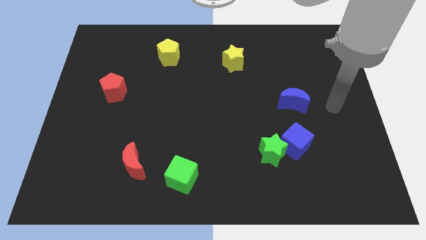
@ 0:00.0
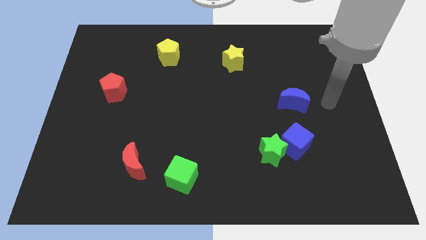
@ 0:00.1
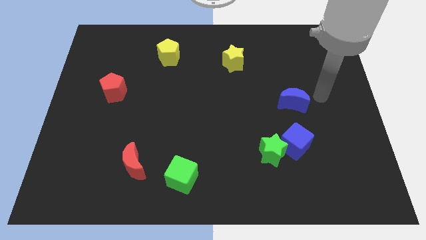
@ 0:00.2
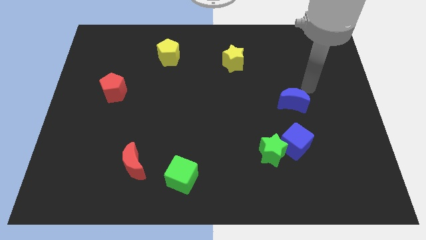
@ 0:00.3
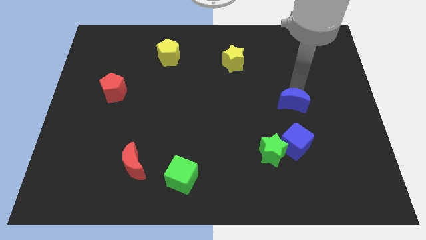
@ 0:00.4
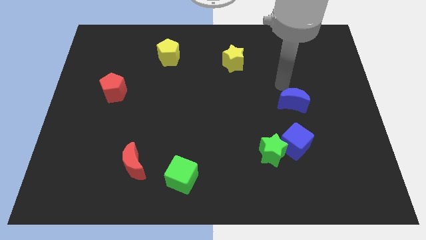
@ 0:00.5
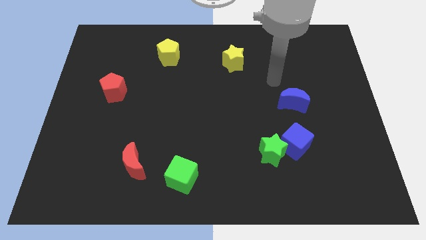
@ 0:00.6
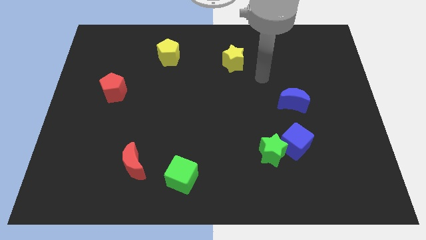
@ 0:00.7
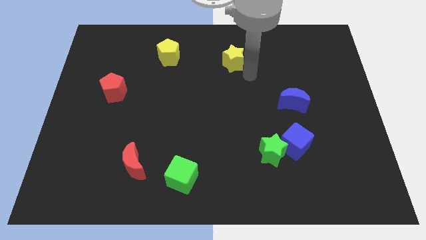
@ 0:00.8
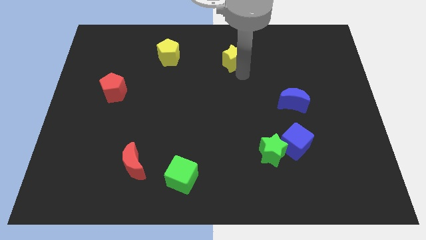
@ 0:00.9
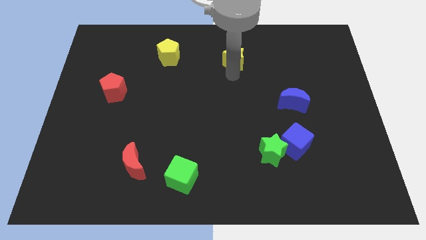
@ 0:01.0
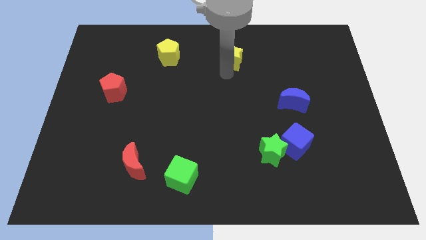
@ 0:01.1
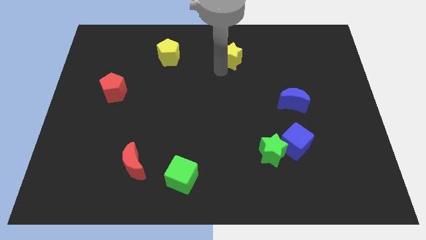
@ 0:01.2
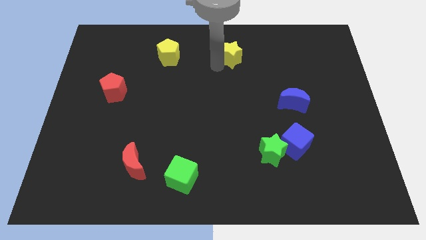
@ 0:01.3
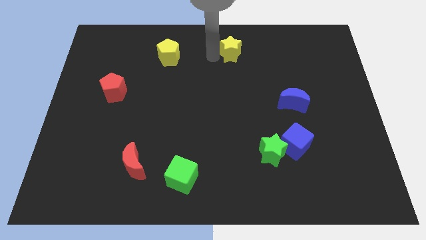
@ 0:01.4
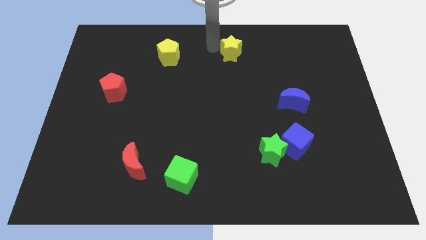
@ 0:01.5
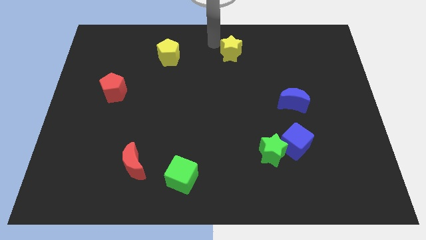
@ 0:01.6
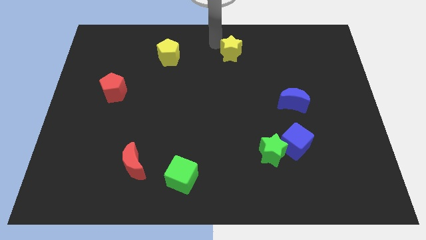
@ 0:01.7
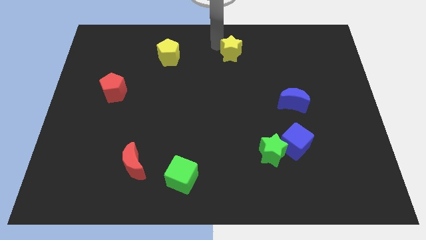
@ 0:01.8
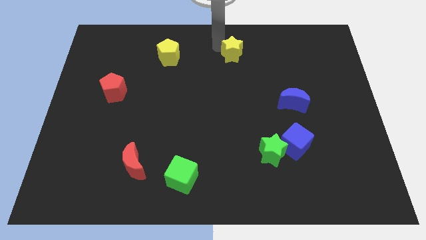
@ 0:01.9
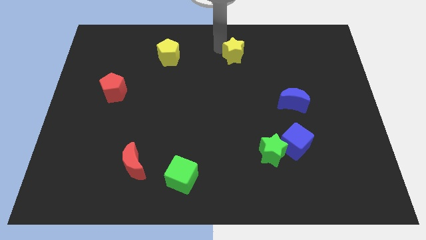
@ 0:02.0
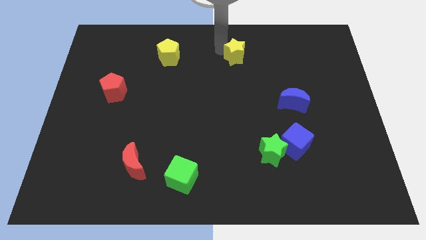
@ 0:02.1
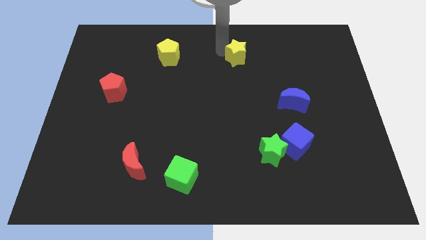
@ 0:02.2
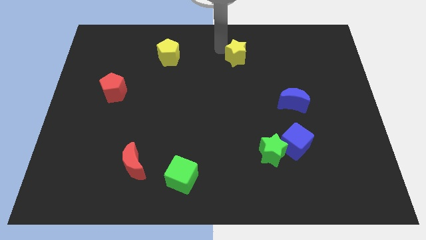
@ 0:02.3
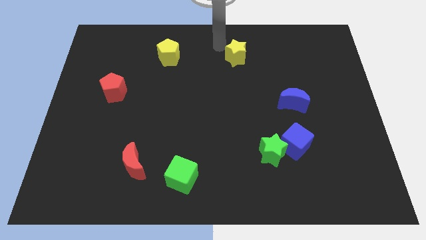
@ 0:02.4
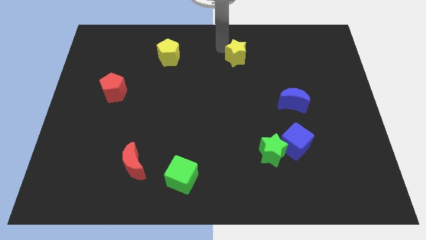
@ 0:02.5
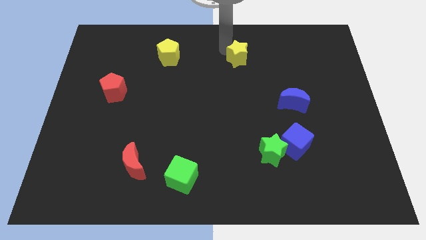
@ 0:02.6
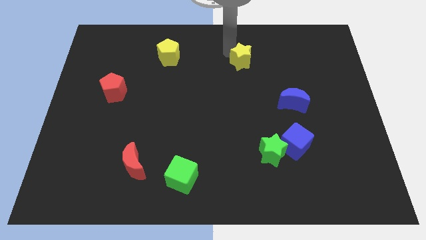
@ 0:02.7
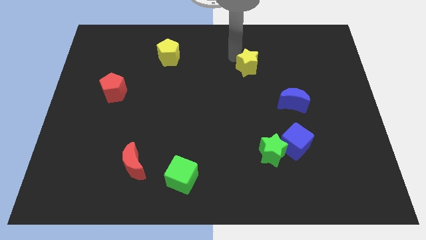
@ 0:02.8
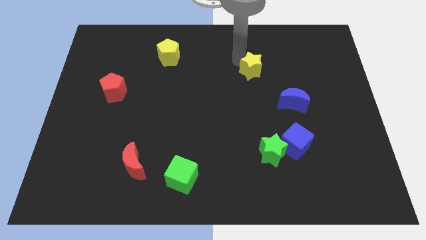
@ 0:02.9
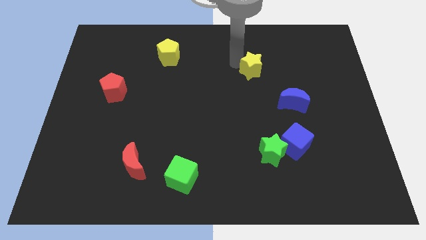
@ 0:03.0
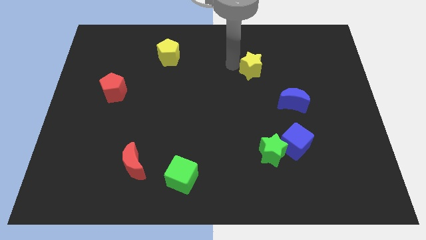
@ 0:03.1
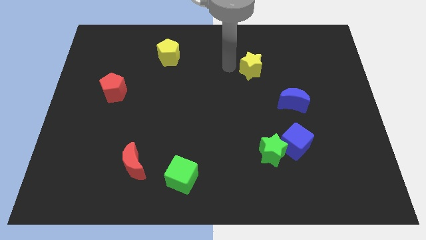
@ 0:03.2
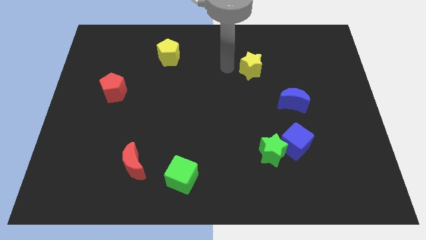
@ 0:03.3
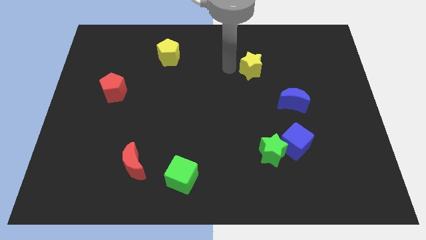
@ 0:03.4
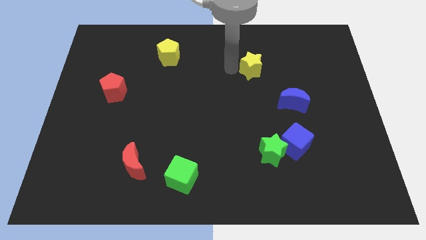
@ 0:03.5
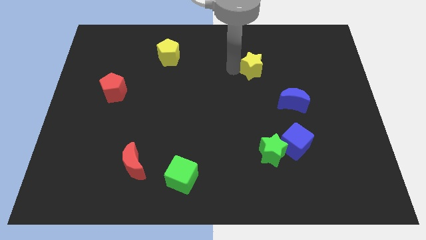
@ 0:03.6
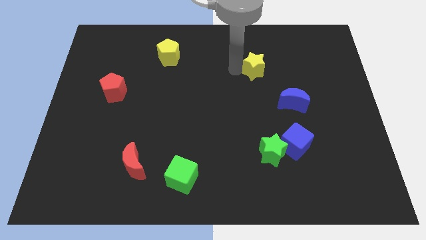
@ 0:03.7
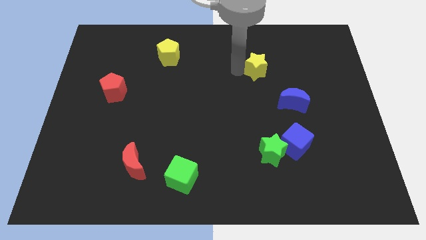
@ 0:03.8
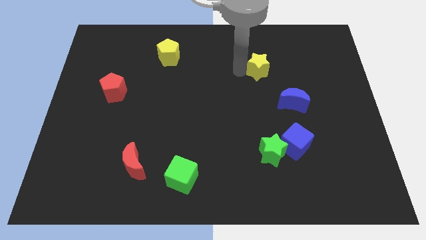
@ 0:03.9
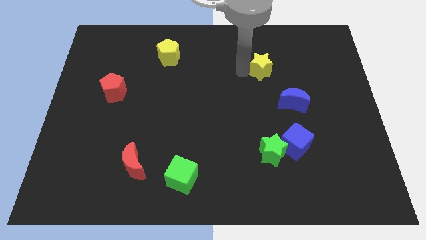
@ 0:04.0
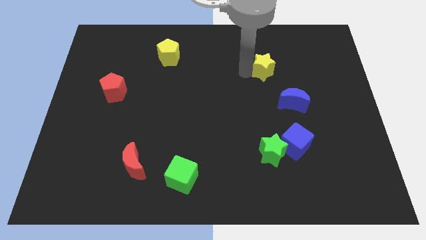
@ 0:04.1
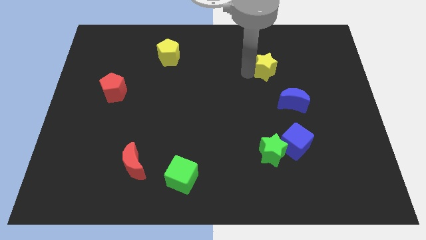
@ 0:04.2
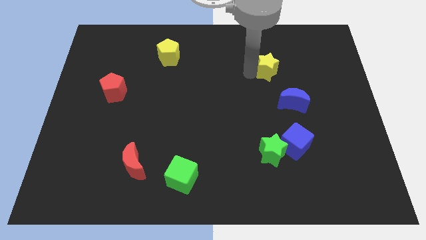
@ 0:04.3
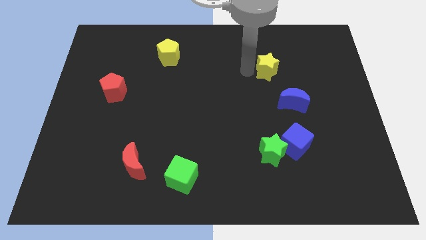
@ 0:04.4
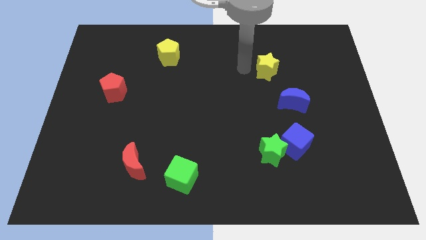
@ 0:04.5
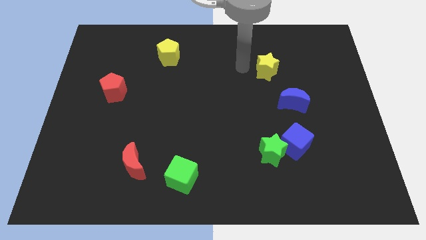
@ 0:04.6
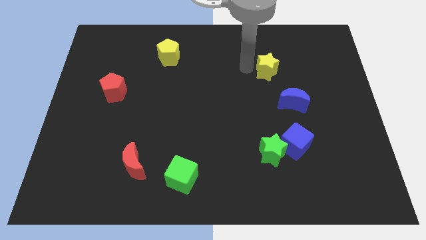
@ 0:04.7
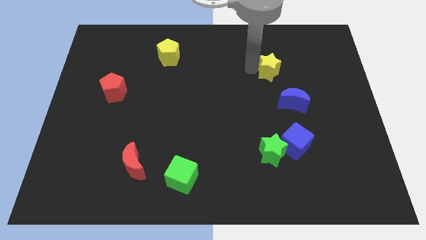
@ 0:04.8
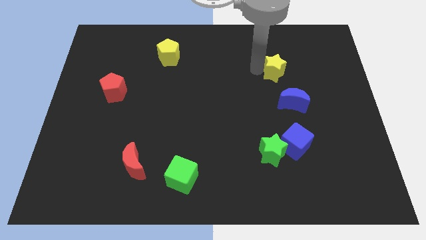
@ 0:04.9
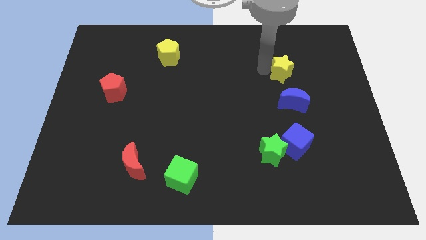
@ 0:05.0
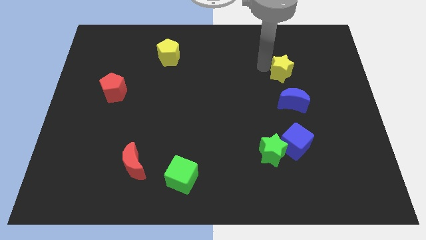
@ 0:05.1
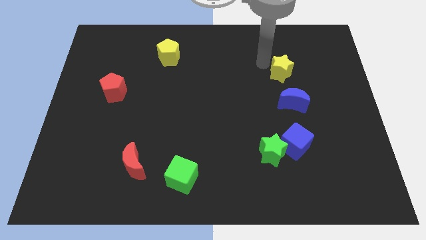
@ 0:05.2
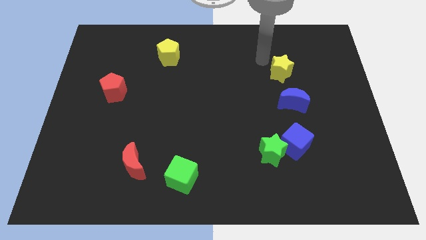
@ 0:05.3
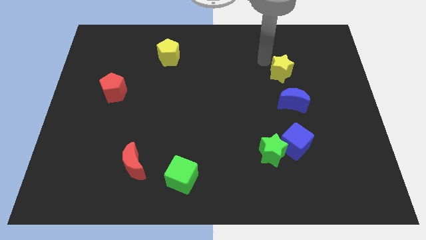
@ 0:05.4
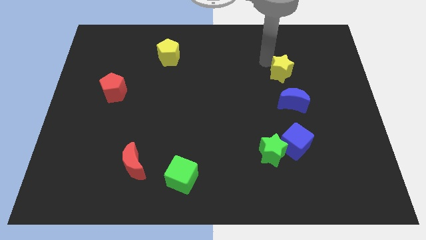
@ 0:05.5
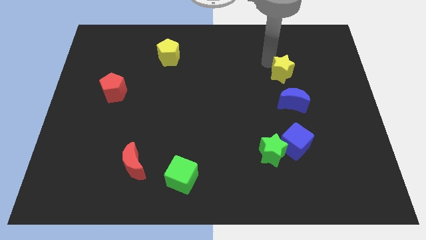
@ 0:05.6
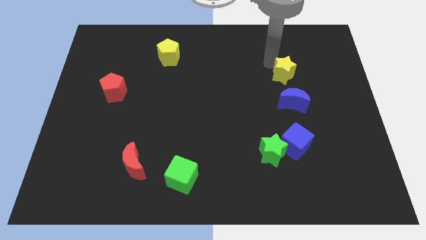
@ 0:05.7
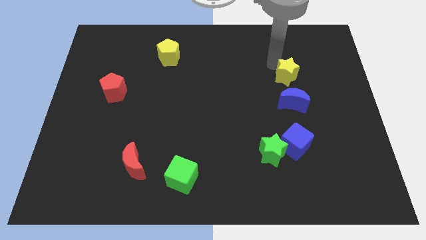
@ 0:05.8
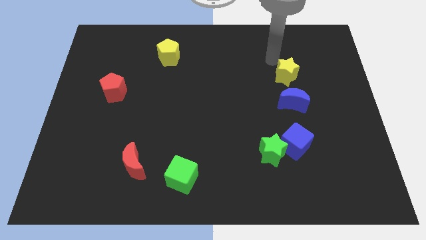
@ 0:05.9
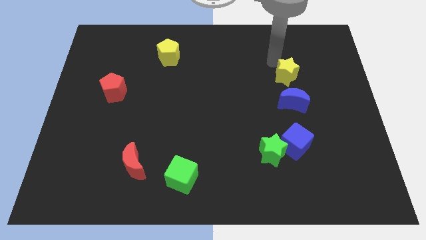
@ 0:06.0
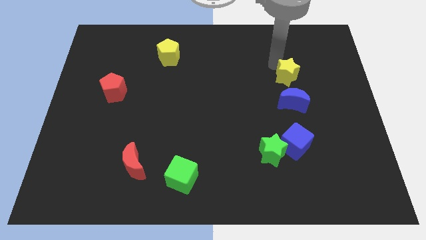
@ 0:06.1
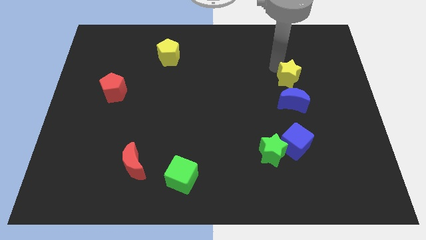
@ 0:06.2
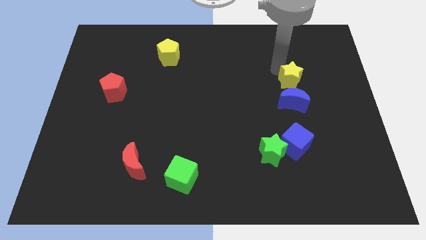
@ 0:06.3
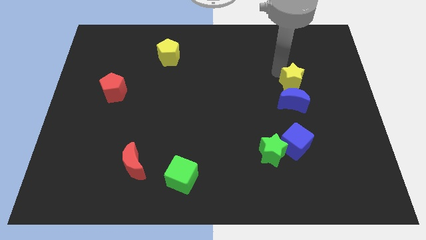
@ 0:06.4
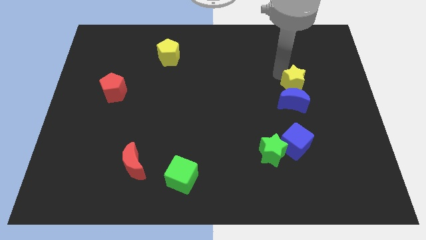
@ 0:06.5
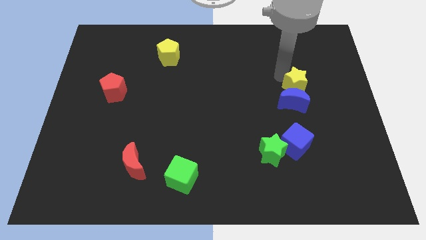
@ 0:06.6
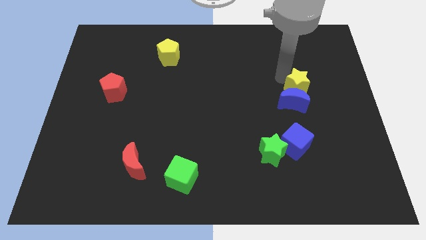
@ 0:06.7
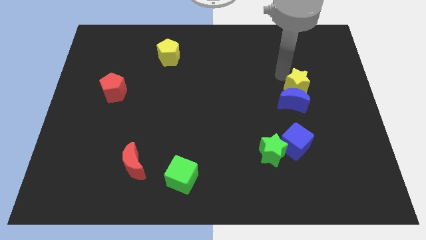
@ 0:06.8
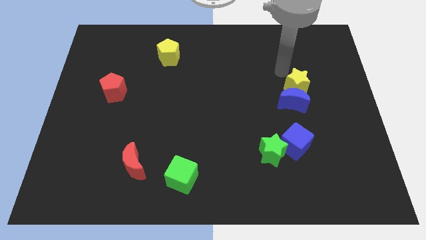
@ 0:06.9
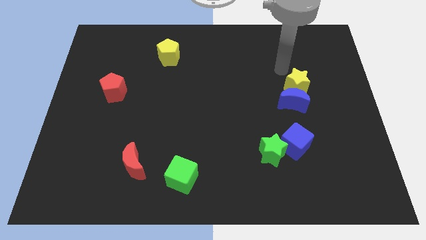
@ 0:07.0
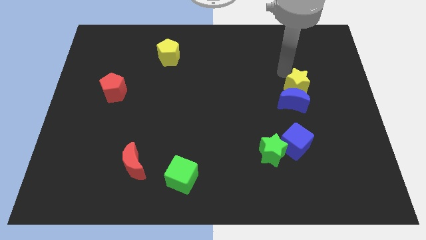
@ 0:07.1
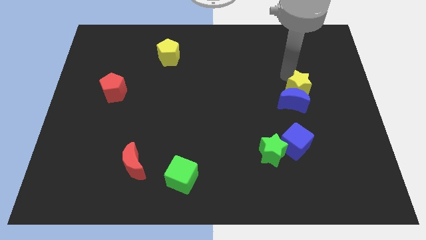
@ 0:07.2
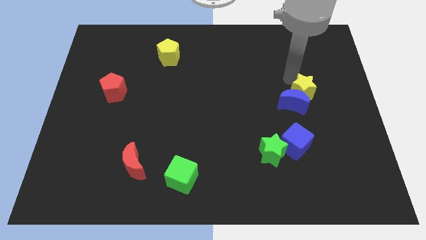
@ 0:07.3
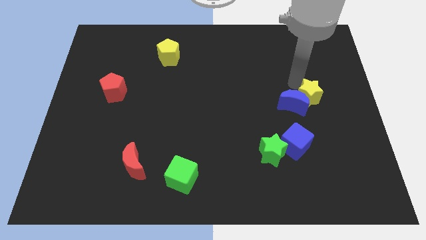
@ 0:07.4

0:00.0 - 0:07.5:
move the yellow star downwards and to the right

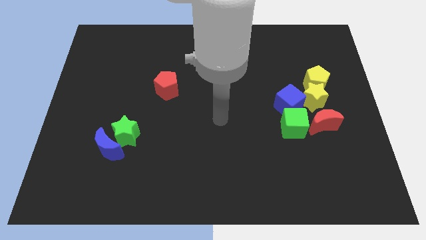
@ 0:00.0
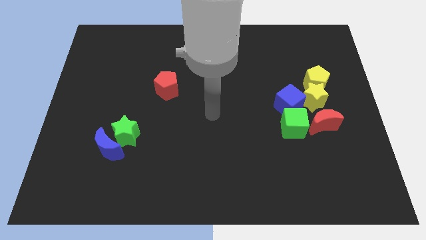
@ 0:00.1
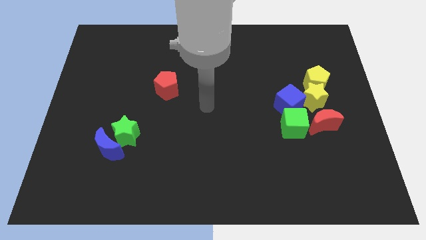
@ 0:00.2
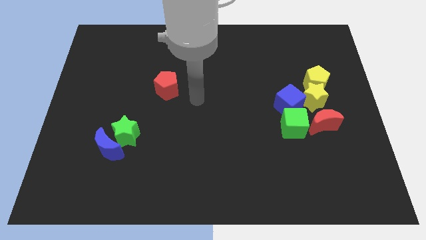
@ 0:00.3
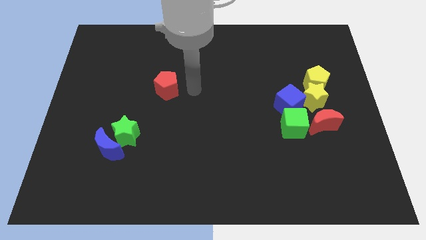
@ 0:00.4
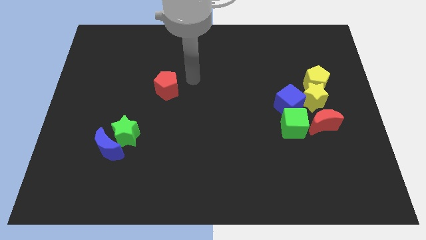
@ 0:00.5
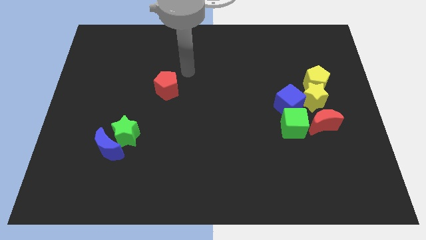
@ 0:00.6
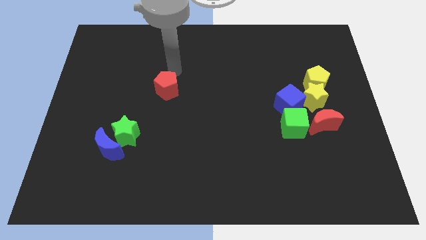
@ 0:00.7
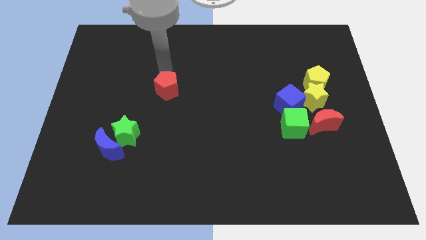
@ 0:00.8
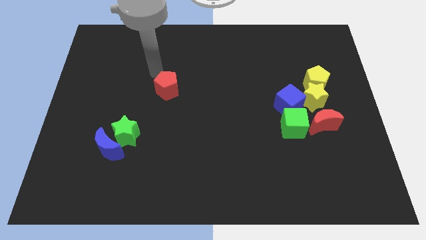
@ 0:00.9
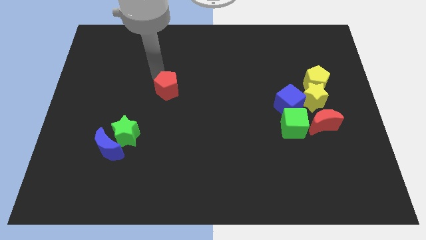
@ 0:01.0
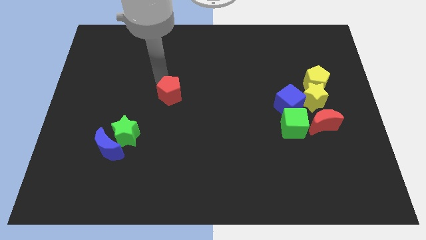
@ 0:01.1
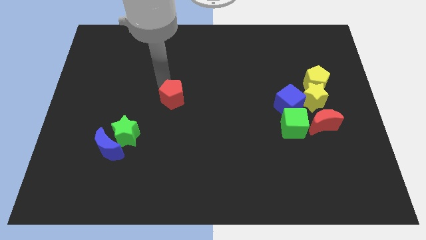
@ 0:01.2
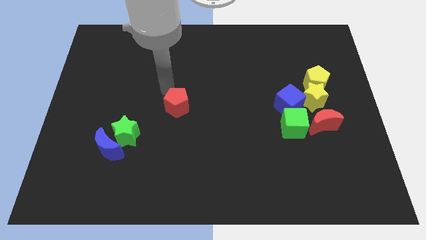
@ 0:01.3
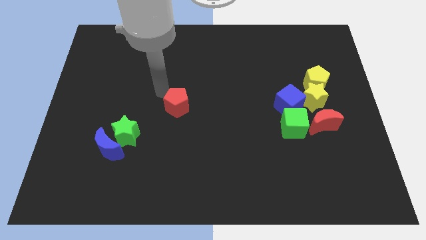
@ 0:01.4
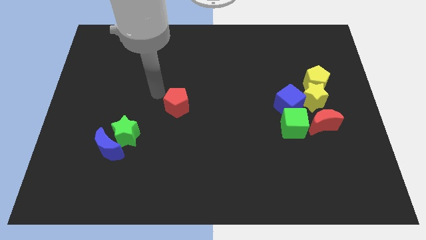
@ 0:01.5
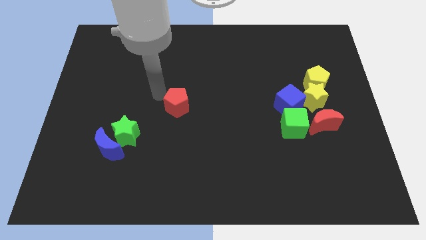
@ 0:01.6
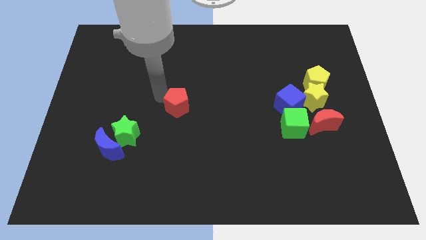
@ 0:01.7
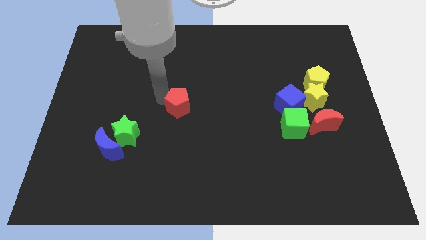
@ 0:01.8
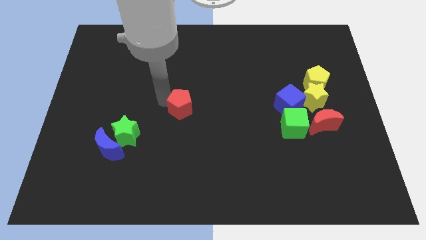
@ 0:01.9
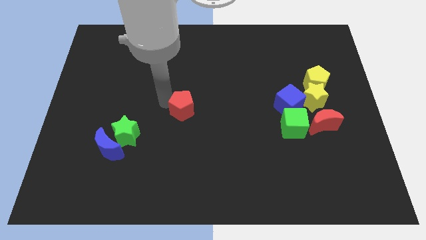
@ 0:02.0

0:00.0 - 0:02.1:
slide the red pentagon down and to the right diagonally a bit
